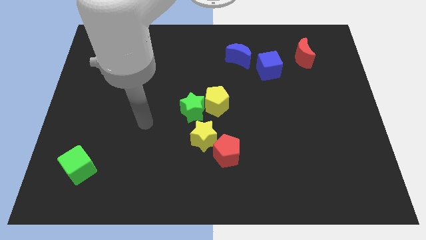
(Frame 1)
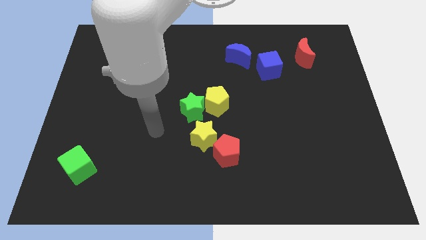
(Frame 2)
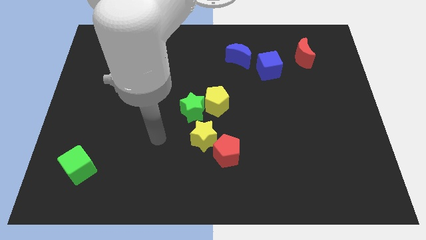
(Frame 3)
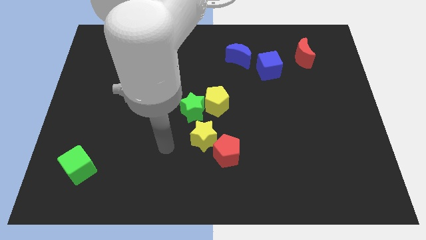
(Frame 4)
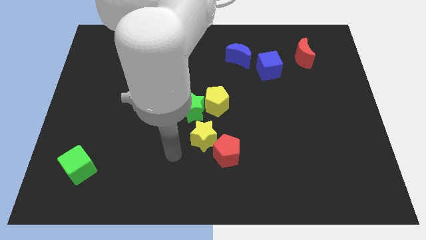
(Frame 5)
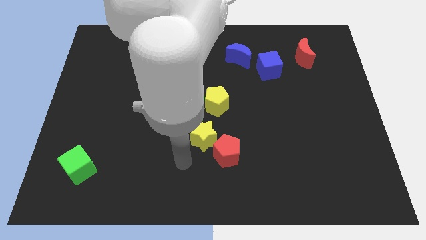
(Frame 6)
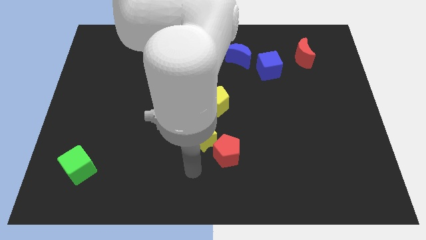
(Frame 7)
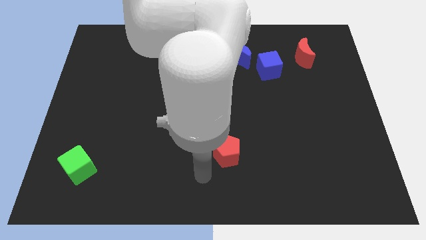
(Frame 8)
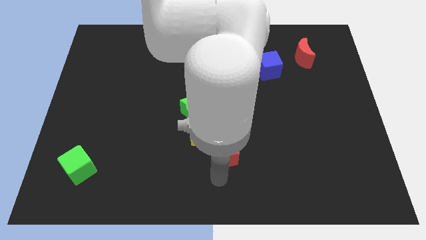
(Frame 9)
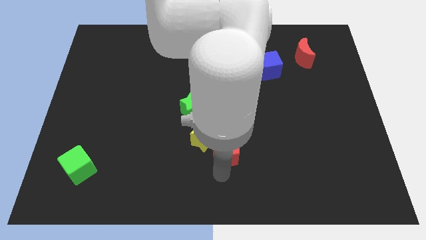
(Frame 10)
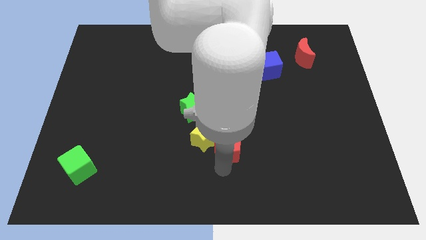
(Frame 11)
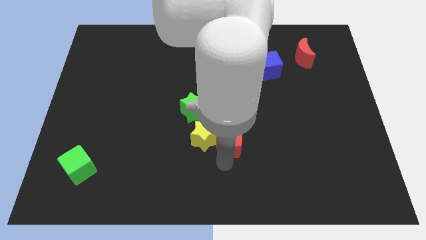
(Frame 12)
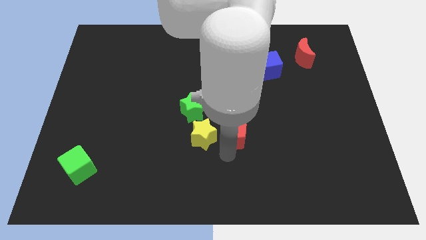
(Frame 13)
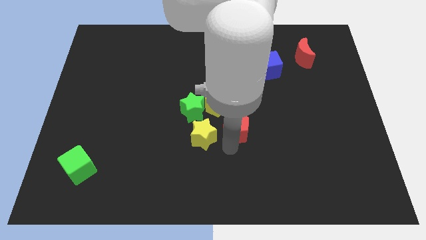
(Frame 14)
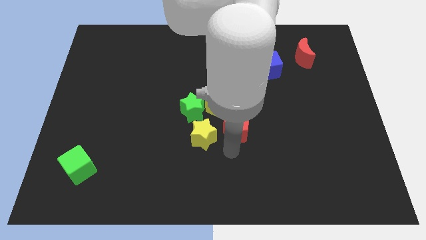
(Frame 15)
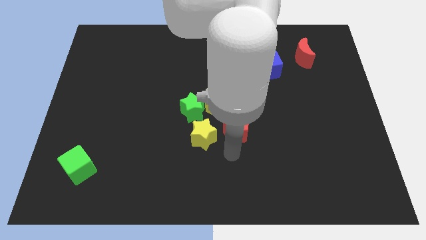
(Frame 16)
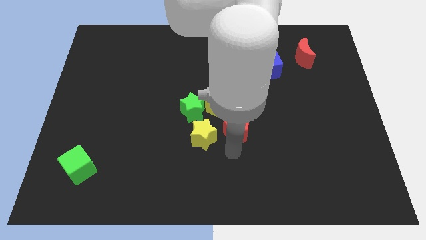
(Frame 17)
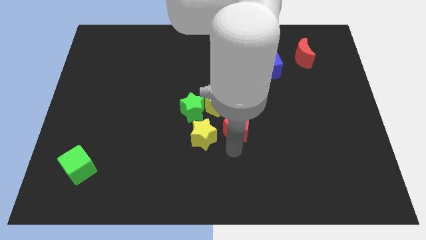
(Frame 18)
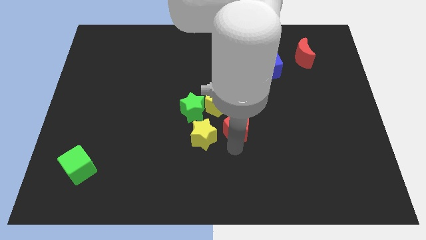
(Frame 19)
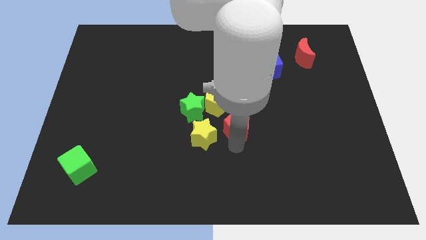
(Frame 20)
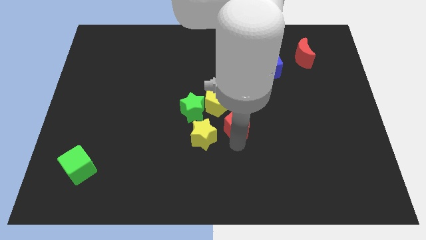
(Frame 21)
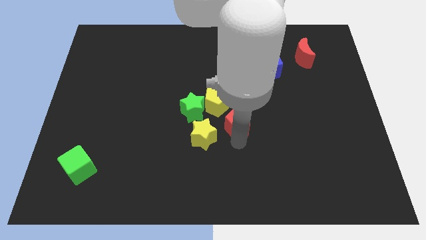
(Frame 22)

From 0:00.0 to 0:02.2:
move the red pentagon up somewhat

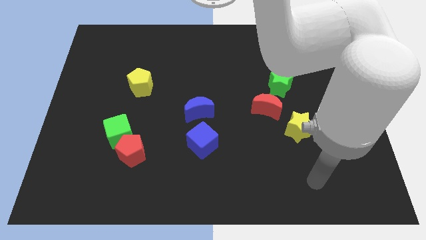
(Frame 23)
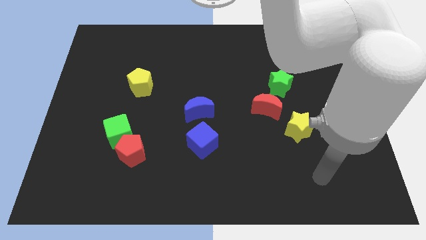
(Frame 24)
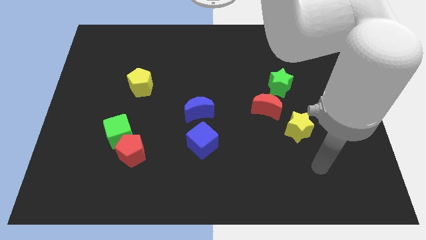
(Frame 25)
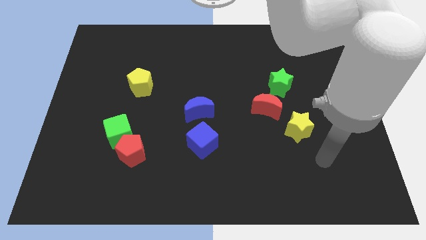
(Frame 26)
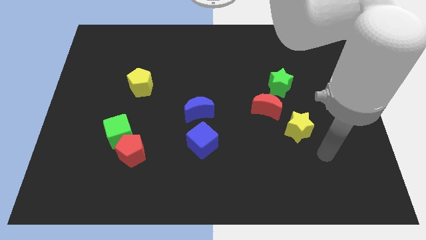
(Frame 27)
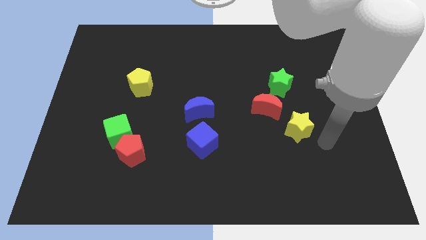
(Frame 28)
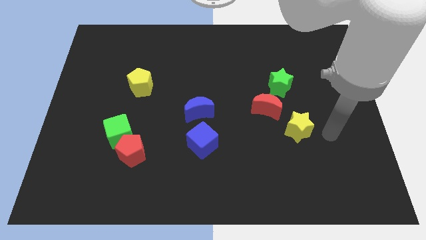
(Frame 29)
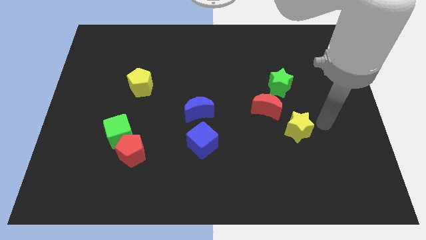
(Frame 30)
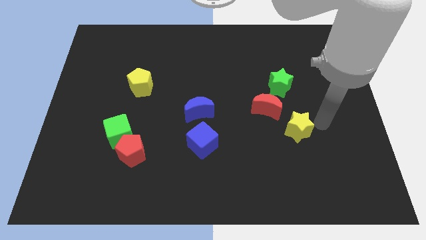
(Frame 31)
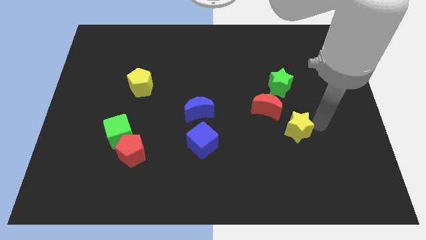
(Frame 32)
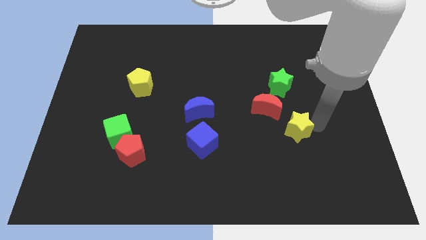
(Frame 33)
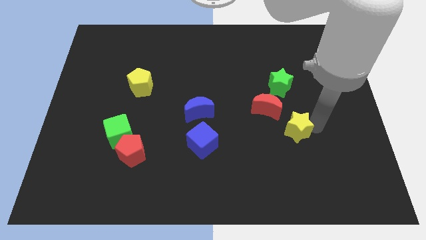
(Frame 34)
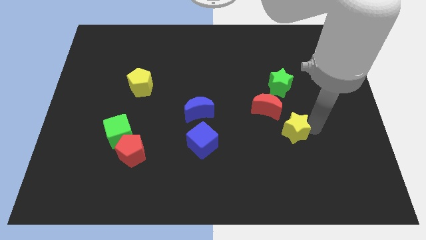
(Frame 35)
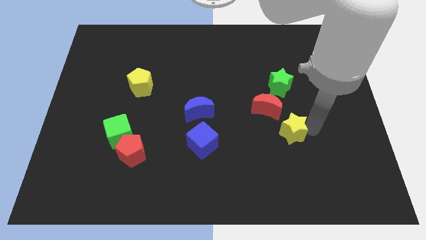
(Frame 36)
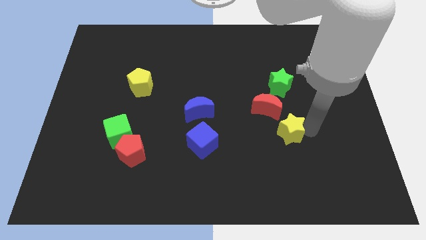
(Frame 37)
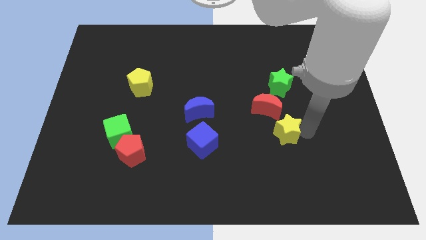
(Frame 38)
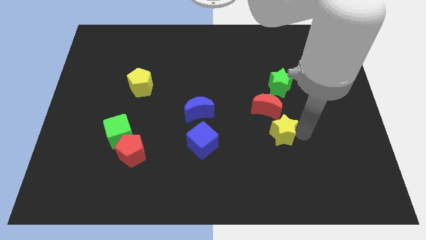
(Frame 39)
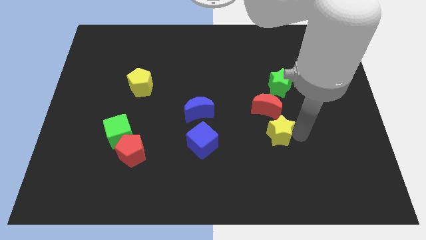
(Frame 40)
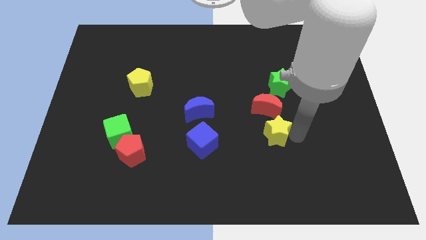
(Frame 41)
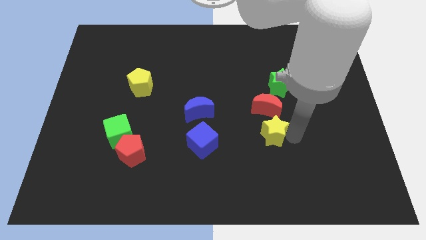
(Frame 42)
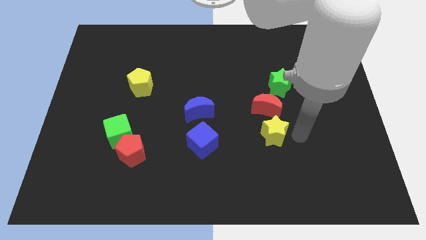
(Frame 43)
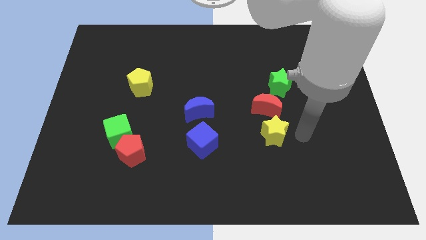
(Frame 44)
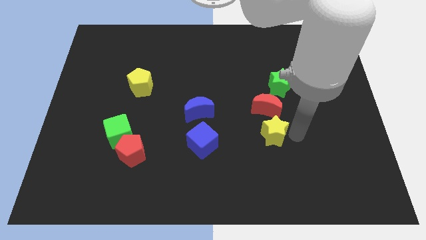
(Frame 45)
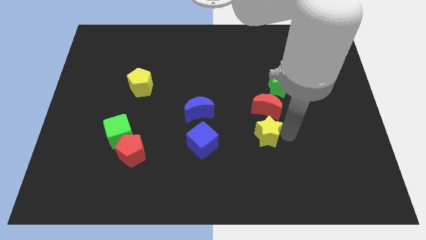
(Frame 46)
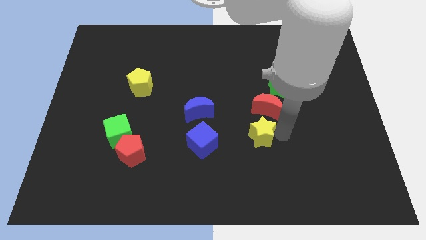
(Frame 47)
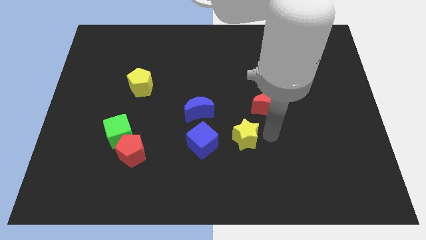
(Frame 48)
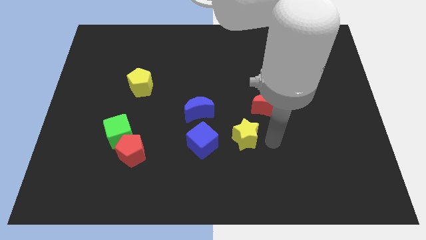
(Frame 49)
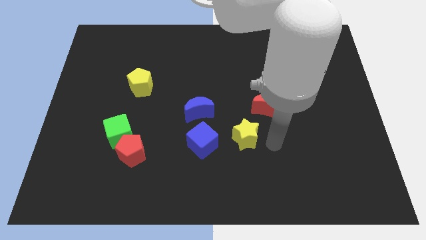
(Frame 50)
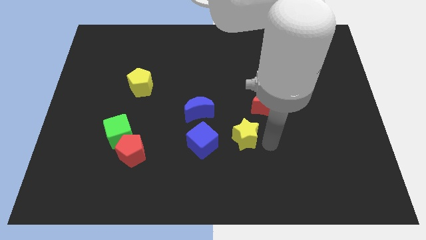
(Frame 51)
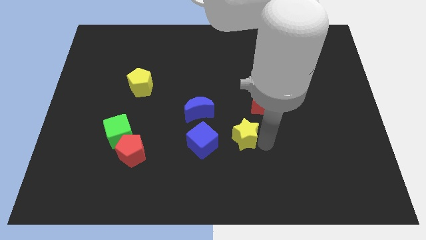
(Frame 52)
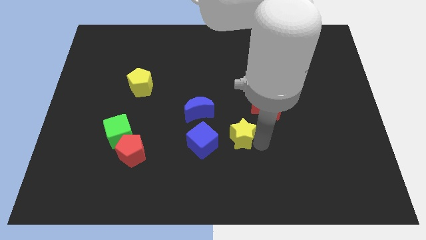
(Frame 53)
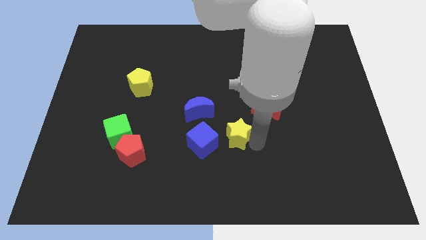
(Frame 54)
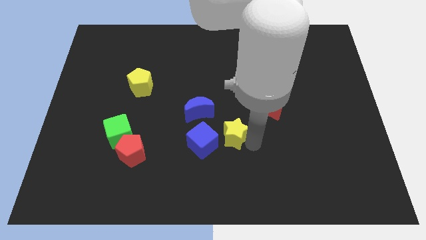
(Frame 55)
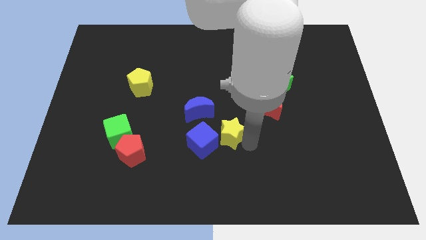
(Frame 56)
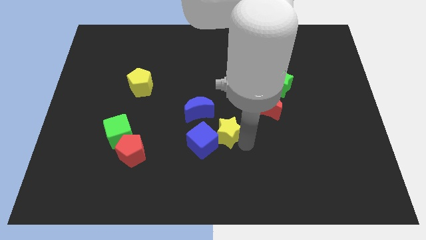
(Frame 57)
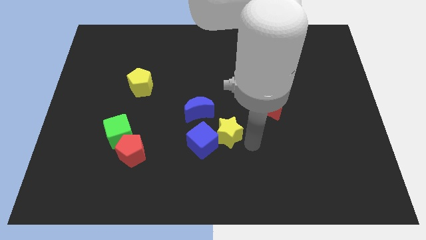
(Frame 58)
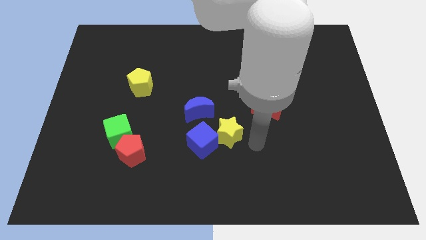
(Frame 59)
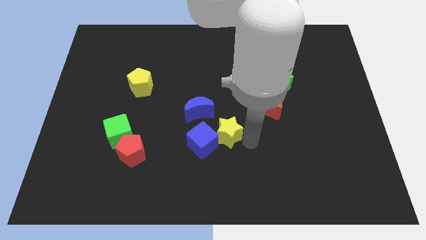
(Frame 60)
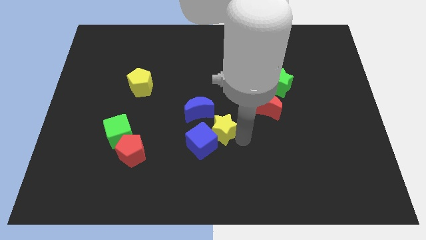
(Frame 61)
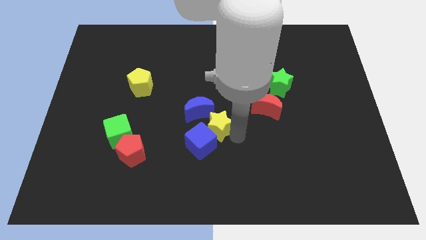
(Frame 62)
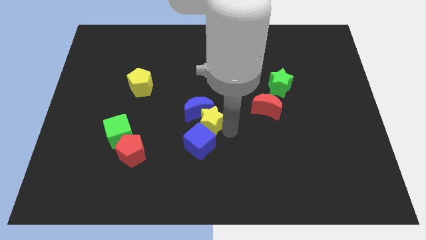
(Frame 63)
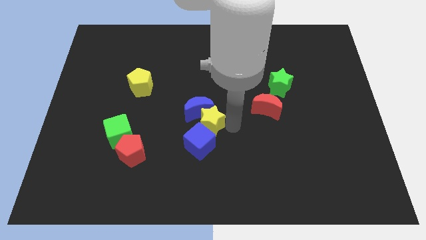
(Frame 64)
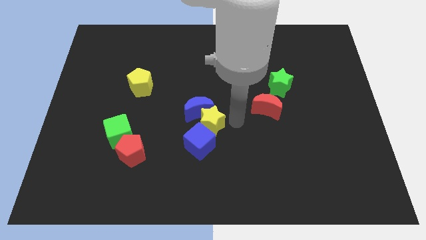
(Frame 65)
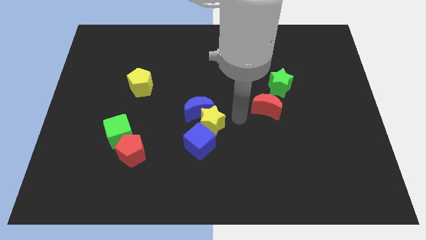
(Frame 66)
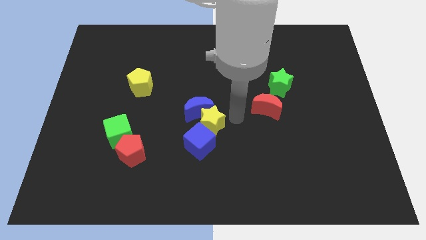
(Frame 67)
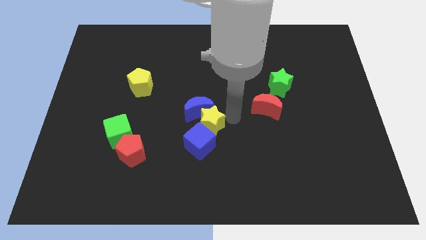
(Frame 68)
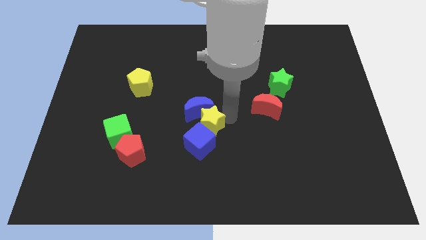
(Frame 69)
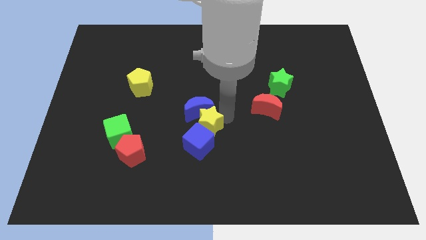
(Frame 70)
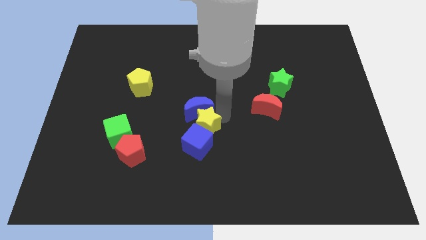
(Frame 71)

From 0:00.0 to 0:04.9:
move the yellow star left

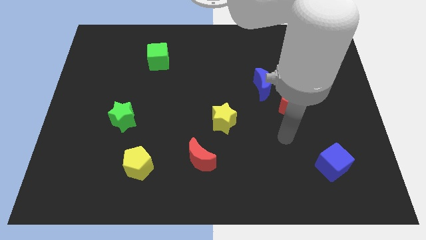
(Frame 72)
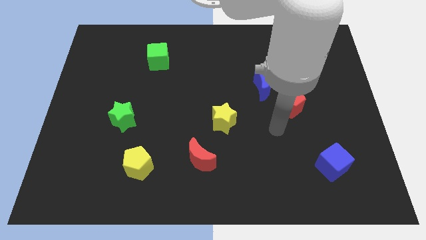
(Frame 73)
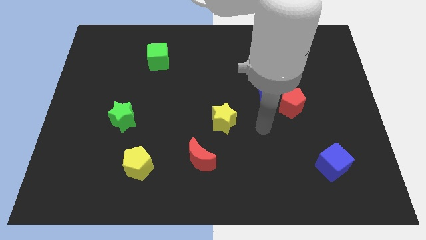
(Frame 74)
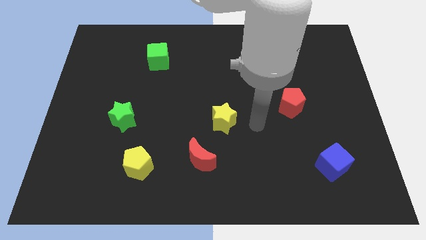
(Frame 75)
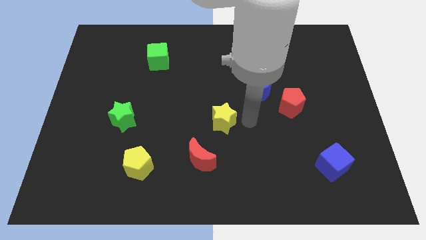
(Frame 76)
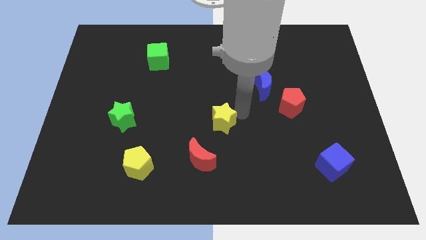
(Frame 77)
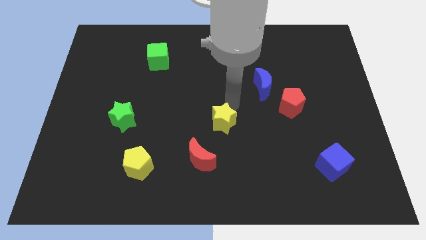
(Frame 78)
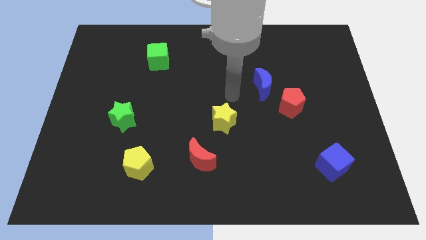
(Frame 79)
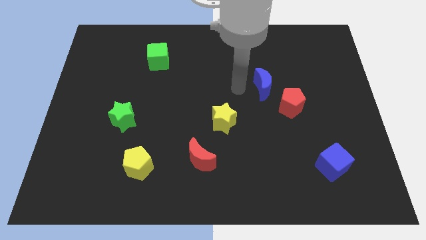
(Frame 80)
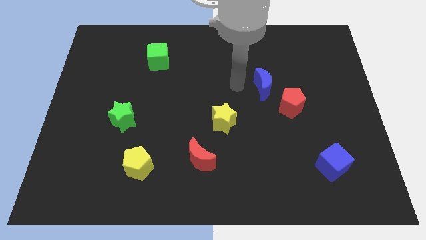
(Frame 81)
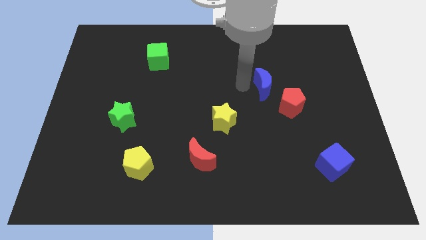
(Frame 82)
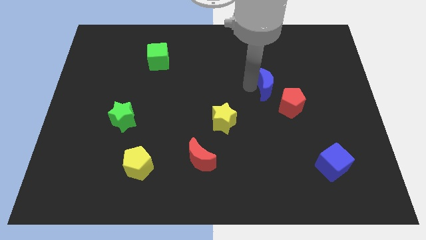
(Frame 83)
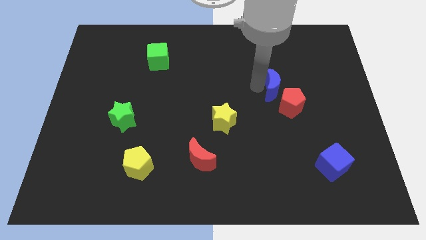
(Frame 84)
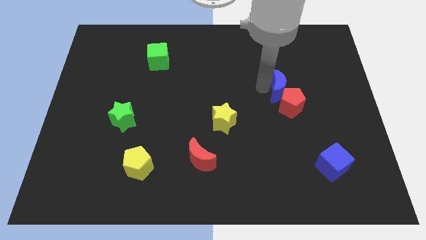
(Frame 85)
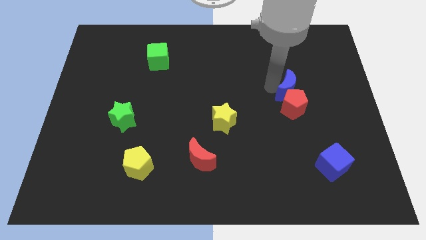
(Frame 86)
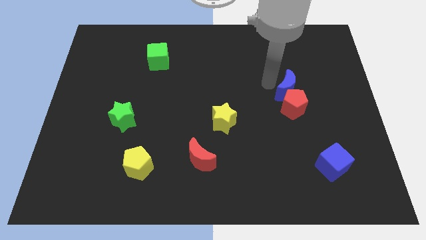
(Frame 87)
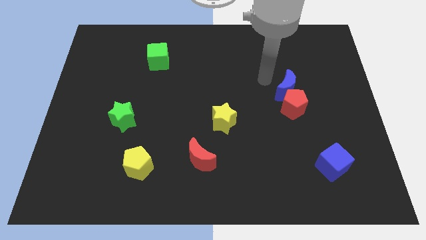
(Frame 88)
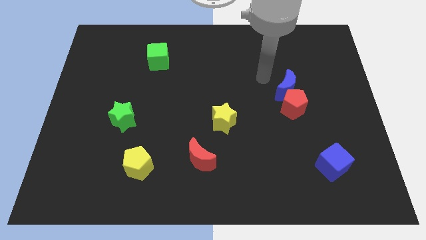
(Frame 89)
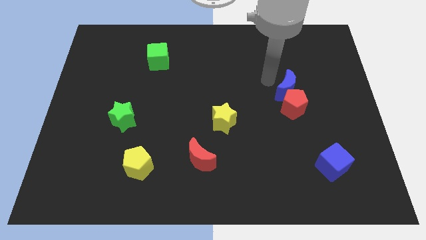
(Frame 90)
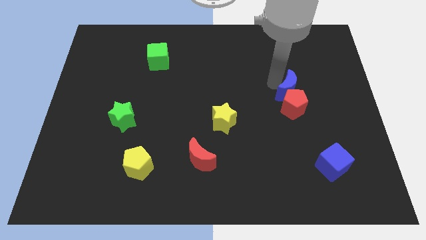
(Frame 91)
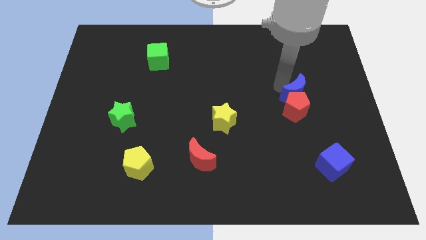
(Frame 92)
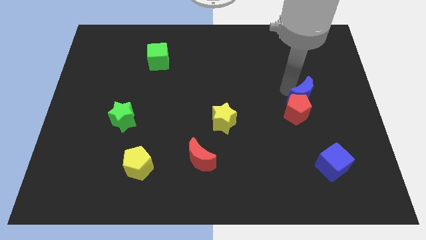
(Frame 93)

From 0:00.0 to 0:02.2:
slightly move the blue moon downwards and then to the right
